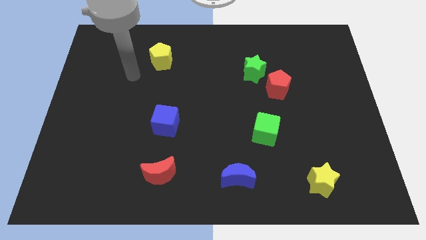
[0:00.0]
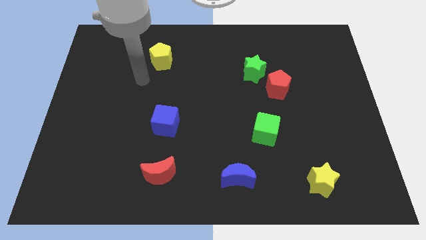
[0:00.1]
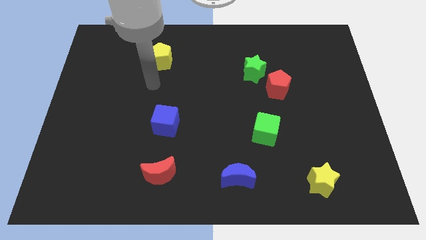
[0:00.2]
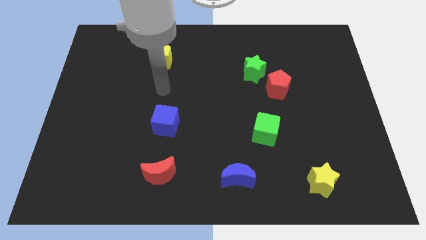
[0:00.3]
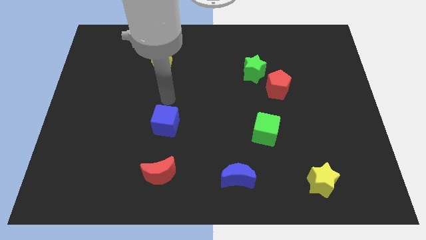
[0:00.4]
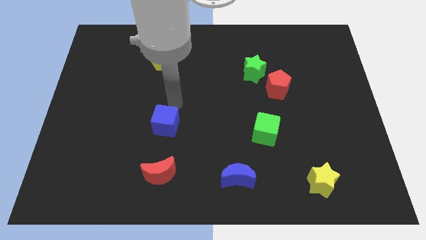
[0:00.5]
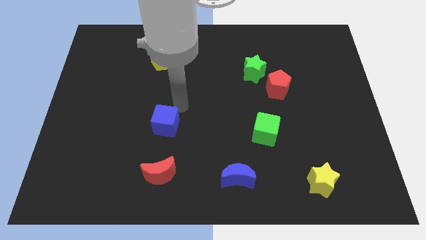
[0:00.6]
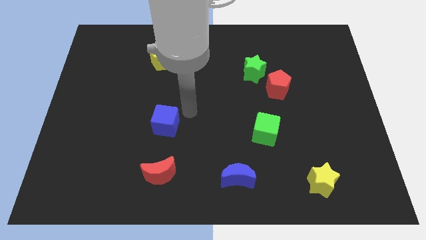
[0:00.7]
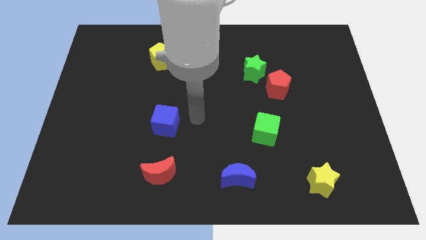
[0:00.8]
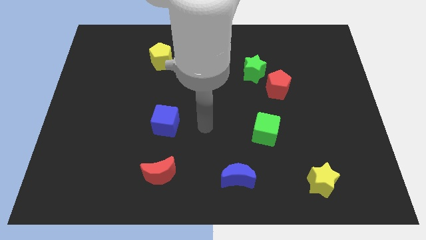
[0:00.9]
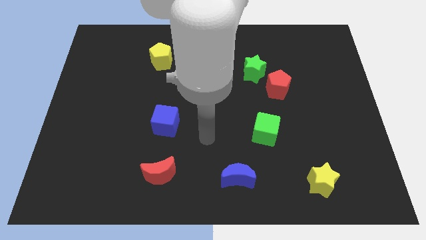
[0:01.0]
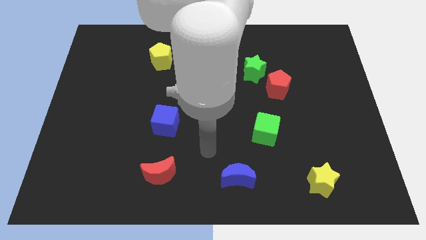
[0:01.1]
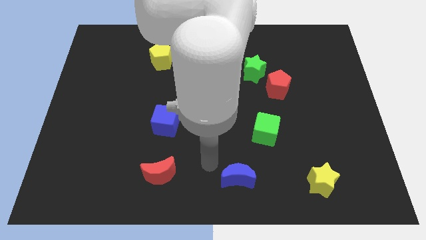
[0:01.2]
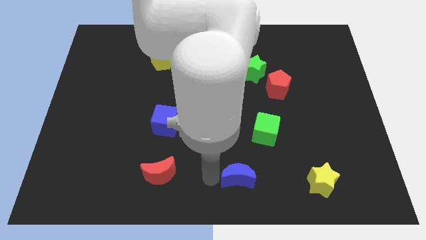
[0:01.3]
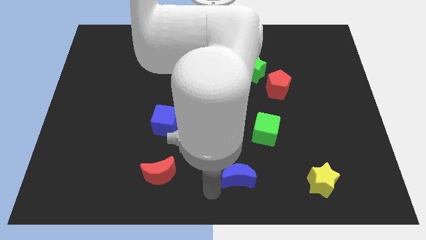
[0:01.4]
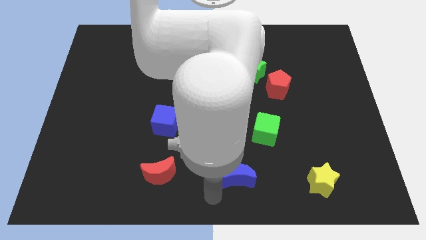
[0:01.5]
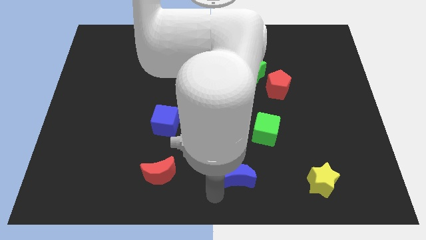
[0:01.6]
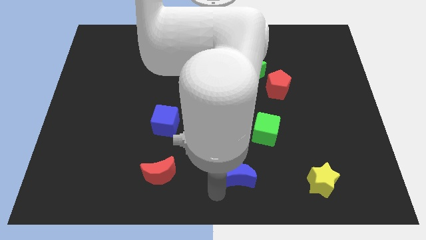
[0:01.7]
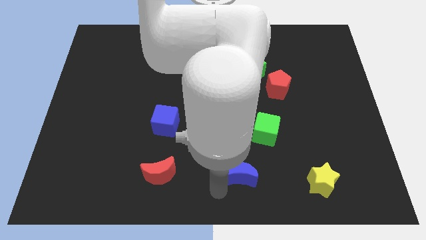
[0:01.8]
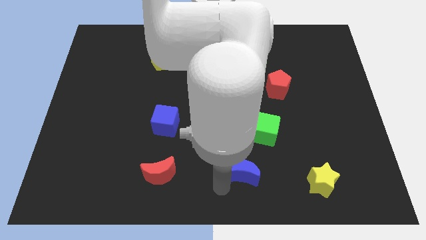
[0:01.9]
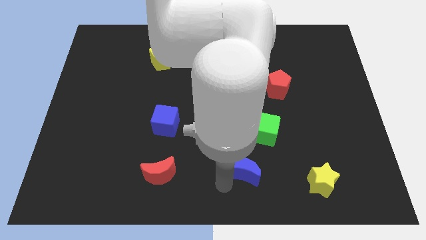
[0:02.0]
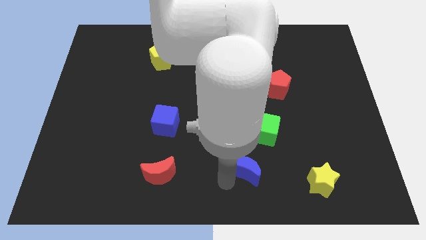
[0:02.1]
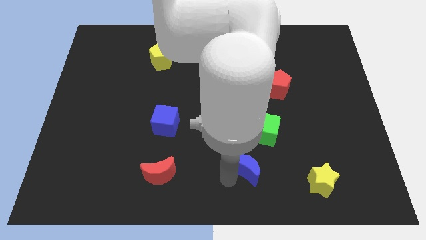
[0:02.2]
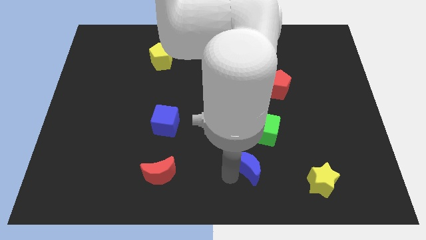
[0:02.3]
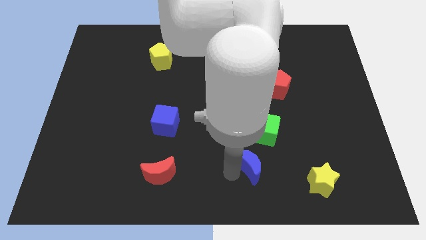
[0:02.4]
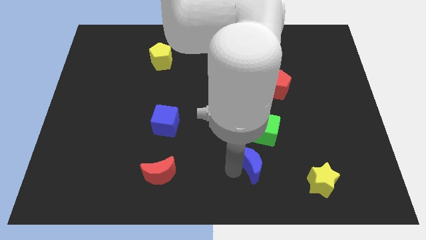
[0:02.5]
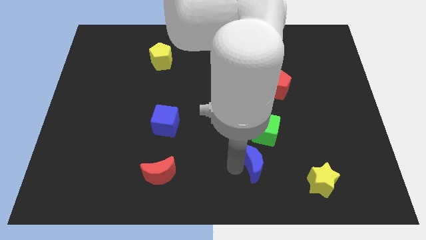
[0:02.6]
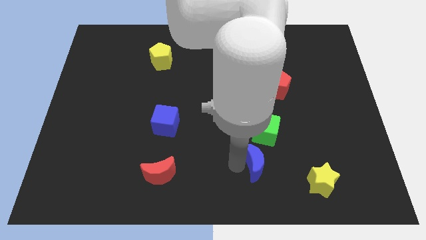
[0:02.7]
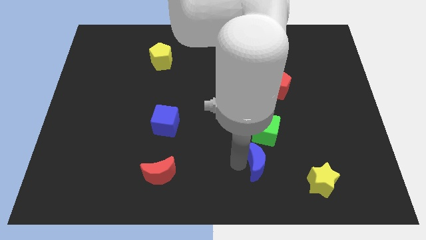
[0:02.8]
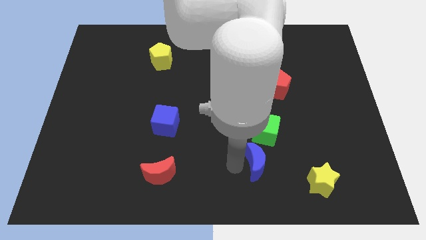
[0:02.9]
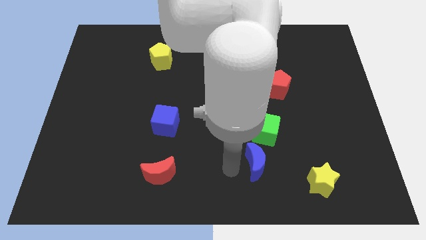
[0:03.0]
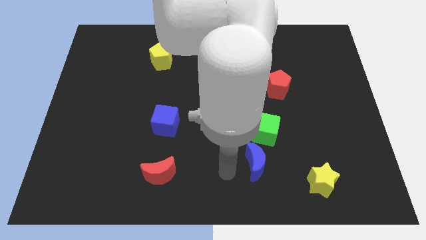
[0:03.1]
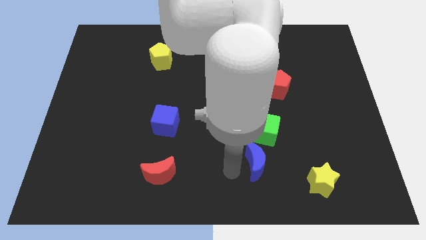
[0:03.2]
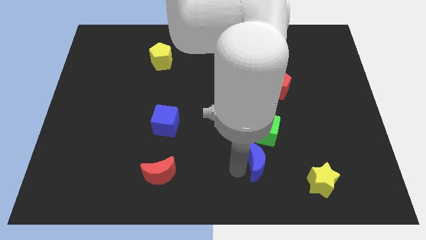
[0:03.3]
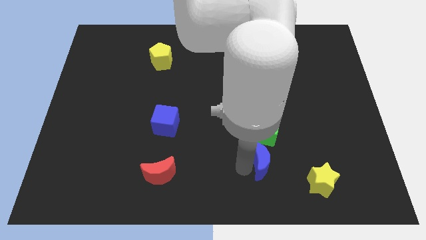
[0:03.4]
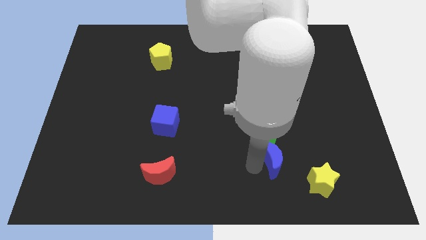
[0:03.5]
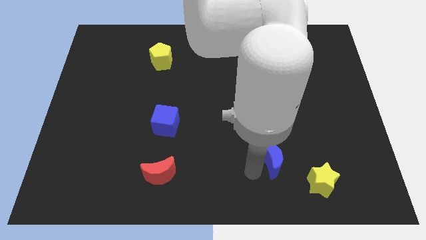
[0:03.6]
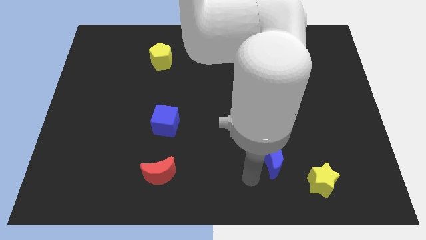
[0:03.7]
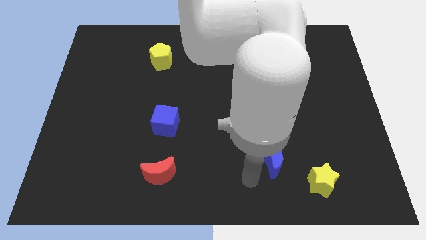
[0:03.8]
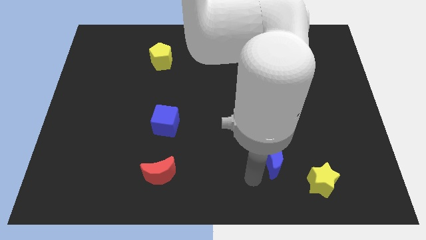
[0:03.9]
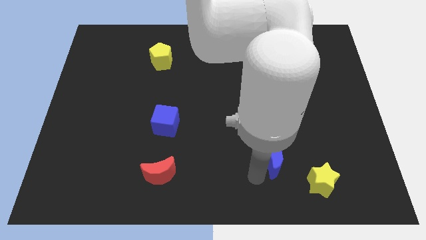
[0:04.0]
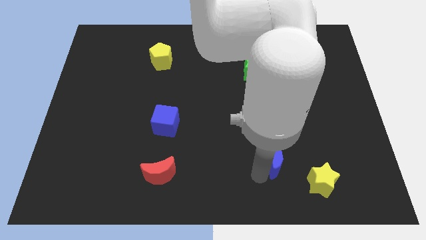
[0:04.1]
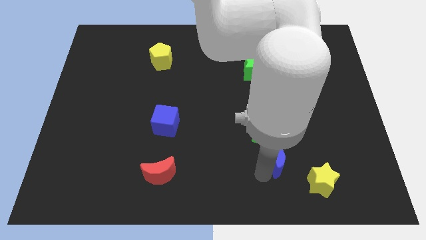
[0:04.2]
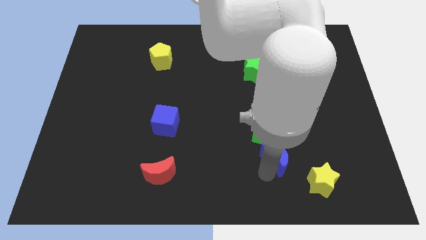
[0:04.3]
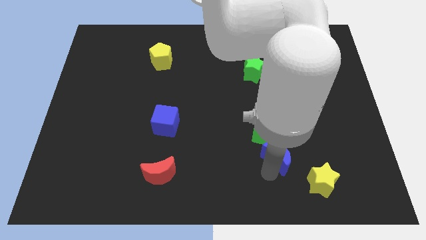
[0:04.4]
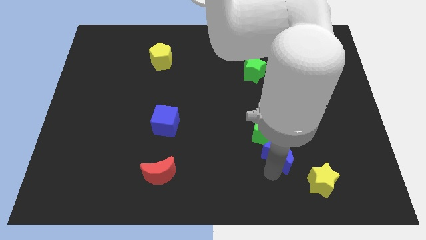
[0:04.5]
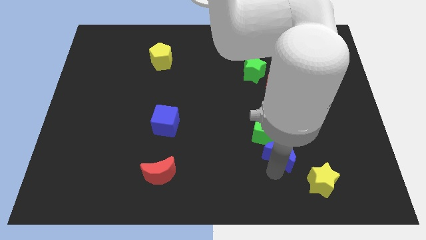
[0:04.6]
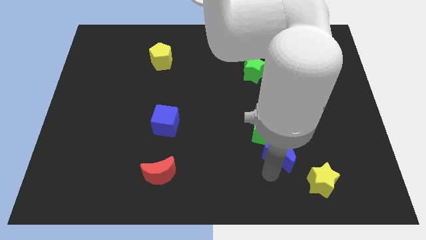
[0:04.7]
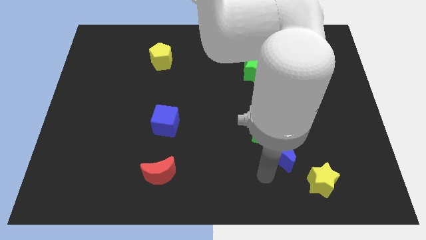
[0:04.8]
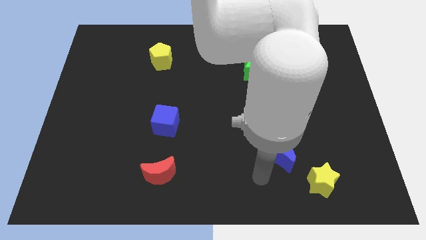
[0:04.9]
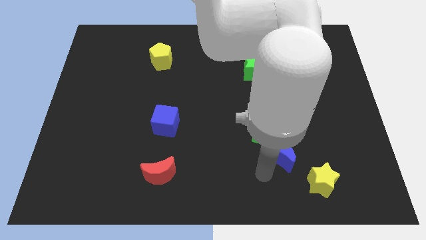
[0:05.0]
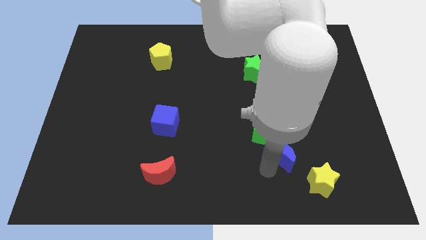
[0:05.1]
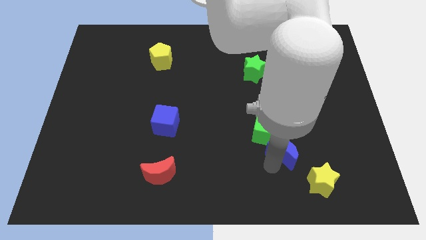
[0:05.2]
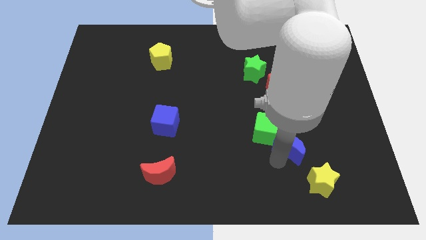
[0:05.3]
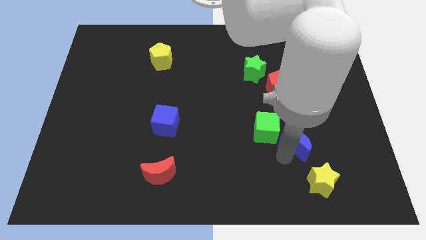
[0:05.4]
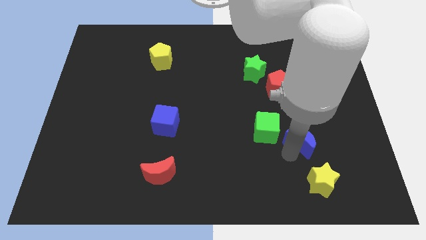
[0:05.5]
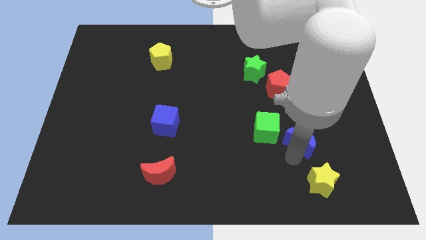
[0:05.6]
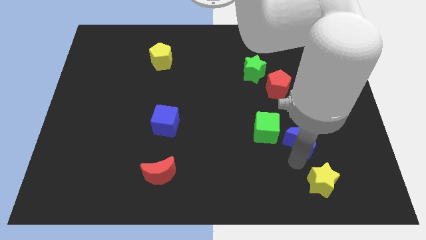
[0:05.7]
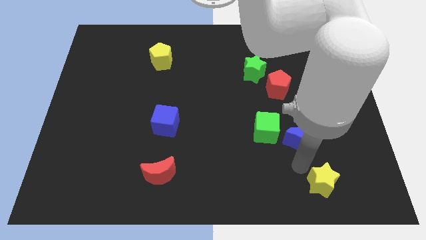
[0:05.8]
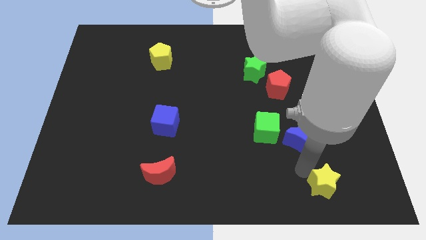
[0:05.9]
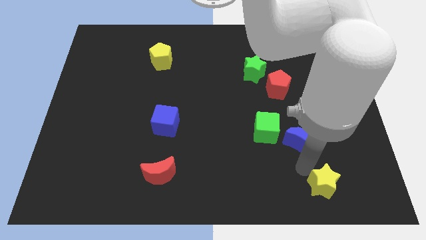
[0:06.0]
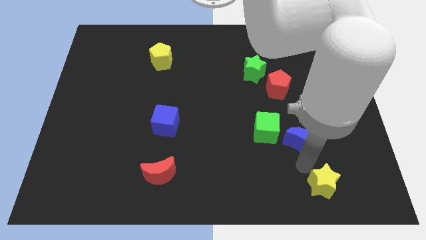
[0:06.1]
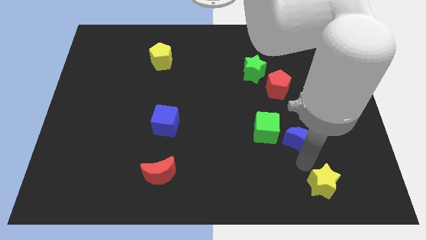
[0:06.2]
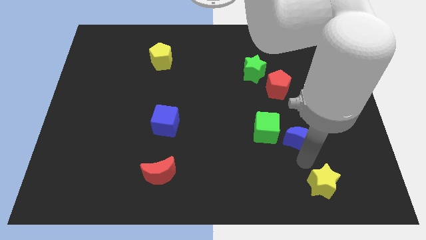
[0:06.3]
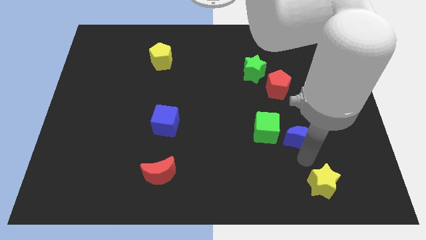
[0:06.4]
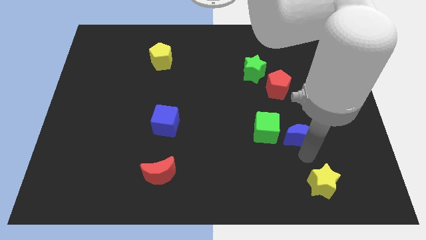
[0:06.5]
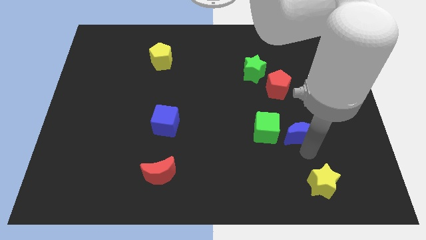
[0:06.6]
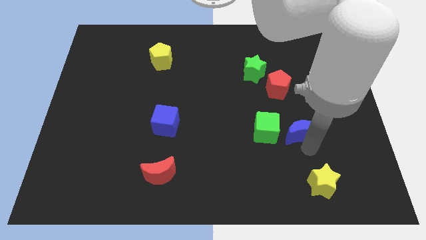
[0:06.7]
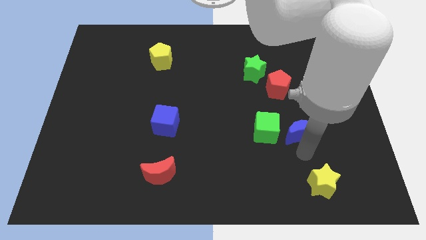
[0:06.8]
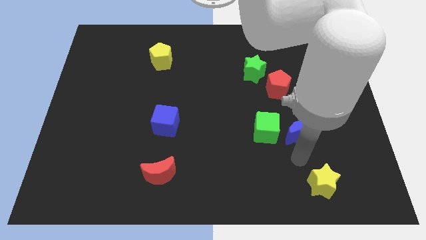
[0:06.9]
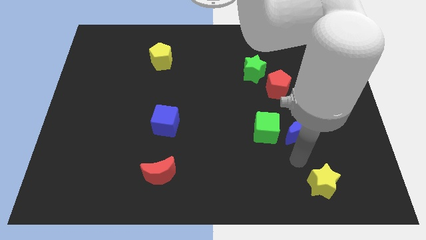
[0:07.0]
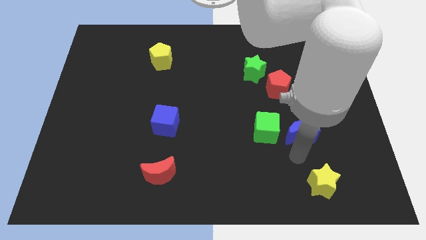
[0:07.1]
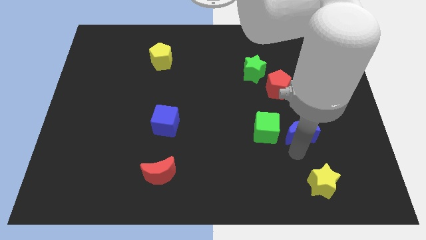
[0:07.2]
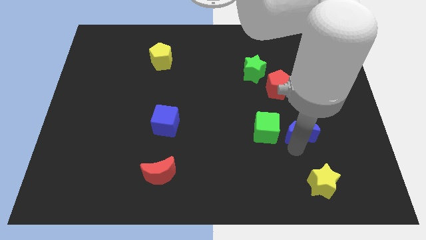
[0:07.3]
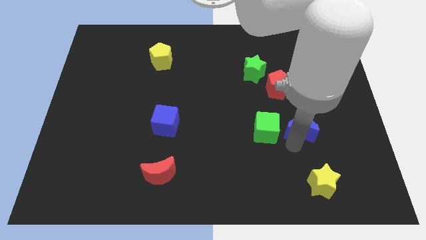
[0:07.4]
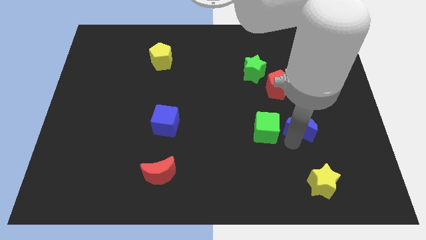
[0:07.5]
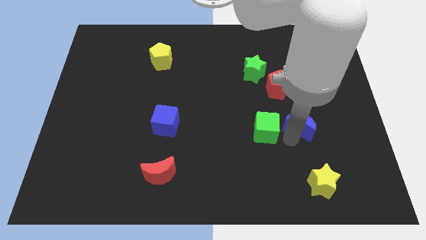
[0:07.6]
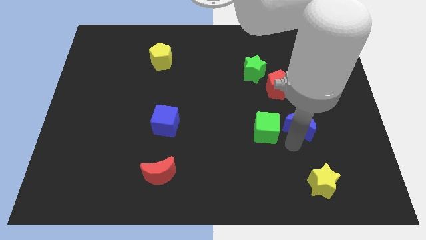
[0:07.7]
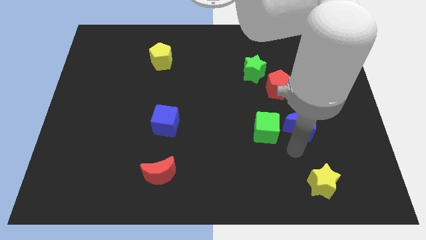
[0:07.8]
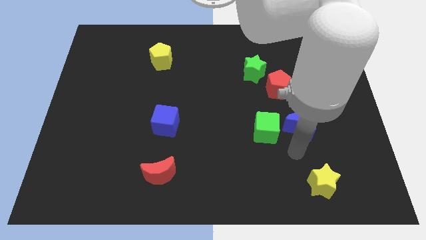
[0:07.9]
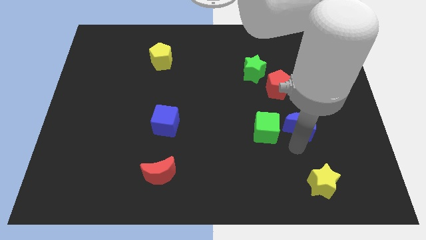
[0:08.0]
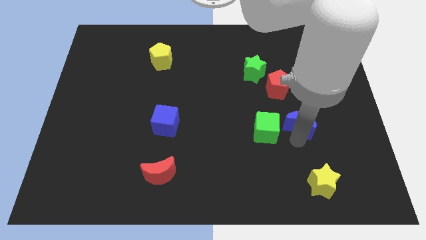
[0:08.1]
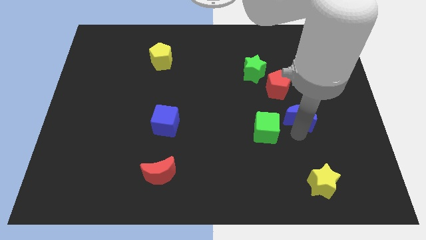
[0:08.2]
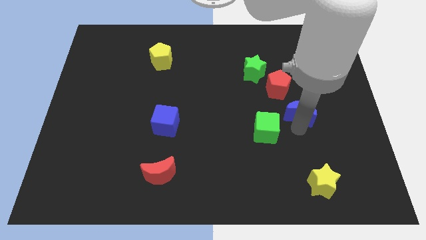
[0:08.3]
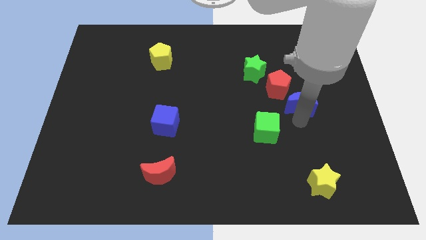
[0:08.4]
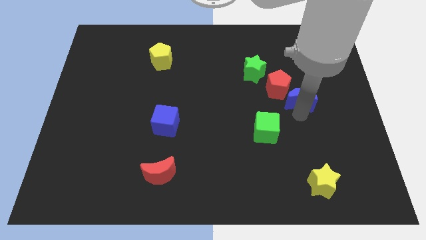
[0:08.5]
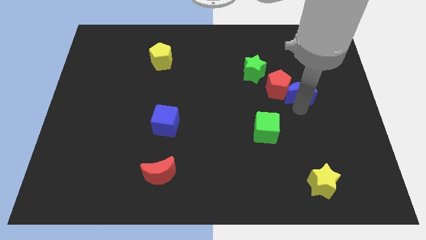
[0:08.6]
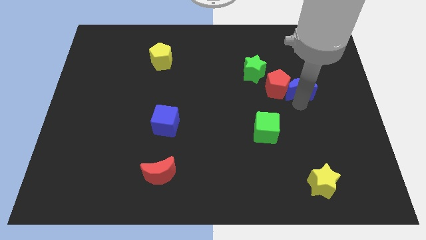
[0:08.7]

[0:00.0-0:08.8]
slide the blue moon to the top right side of the red pentagon
